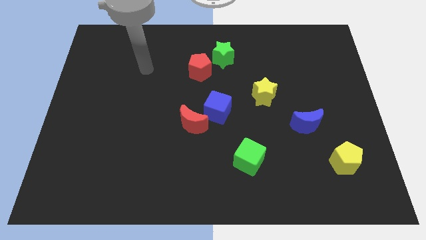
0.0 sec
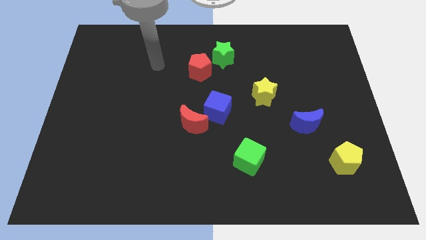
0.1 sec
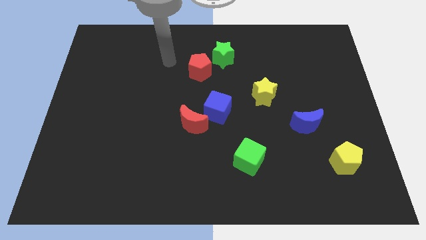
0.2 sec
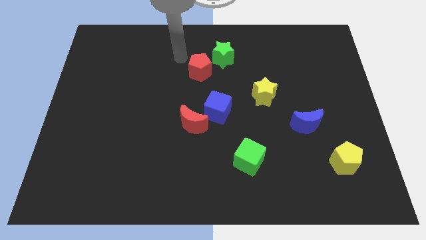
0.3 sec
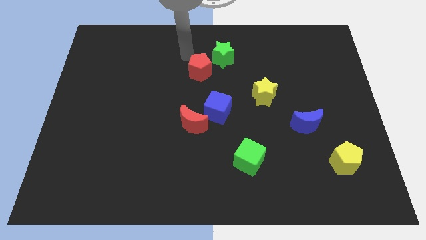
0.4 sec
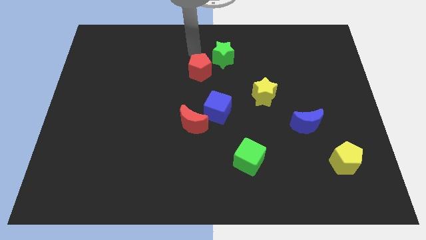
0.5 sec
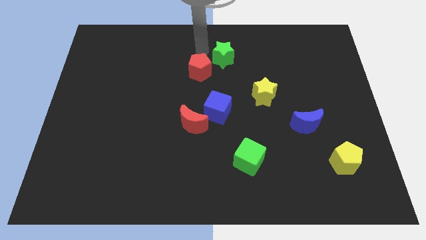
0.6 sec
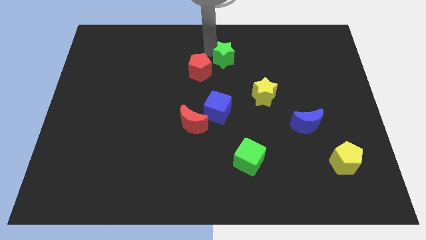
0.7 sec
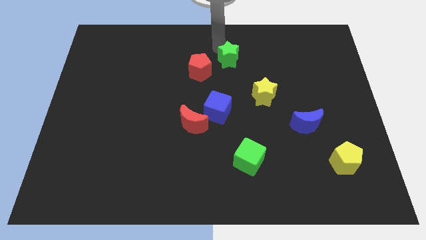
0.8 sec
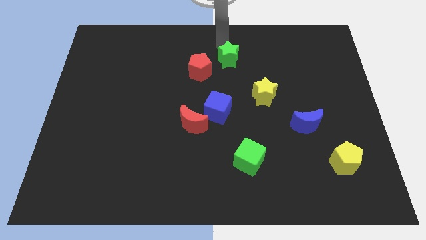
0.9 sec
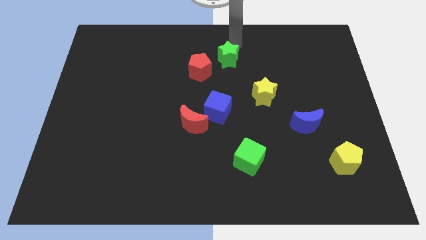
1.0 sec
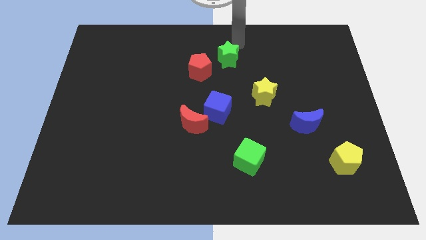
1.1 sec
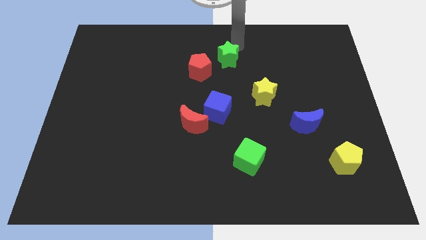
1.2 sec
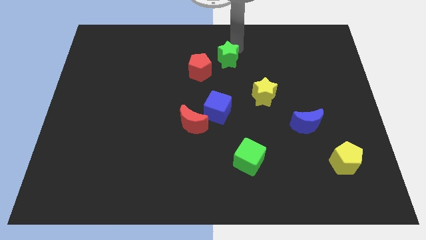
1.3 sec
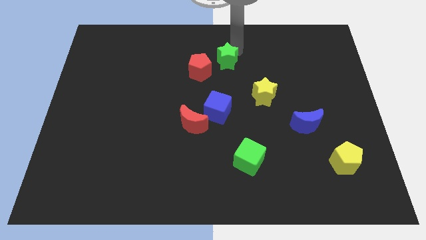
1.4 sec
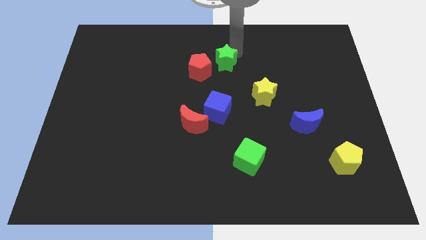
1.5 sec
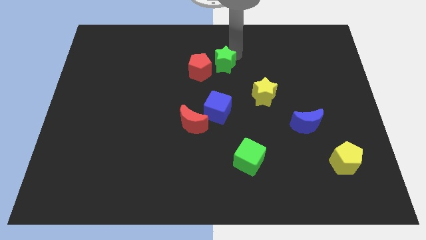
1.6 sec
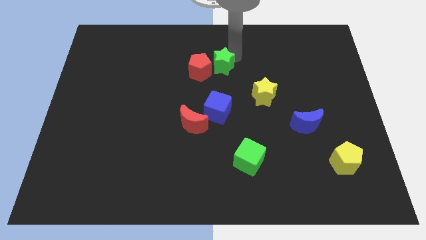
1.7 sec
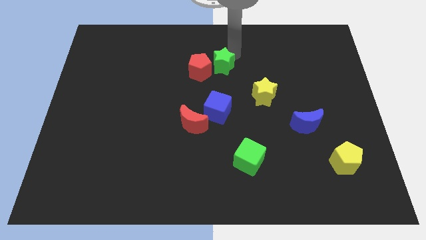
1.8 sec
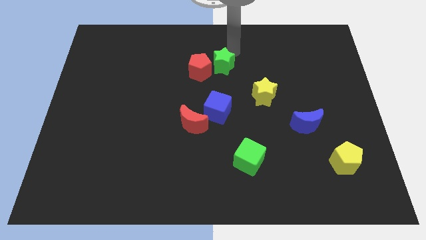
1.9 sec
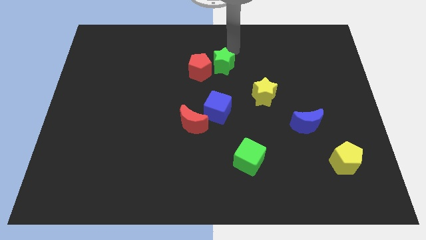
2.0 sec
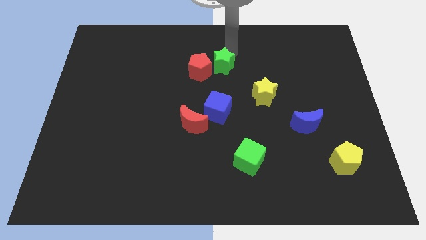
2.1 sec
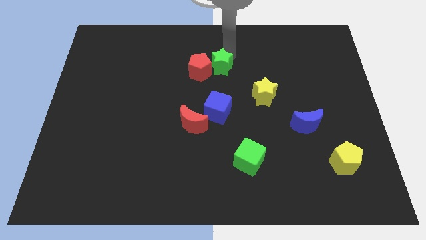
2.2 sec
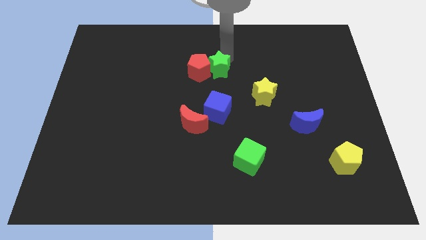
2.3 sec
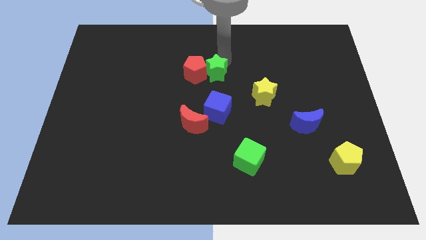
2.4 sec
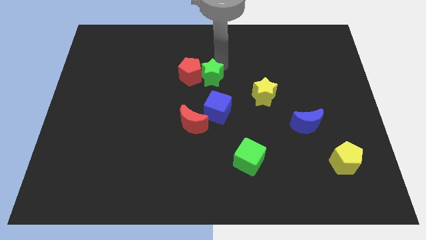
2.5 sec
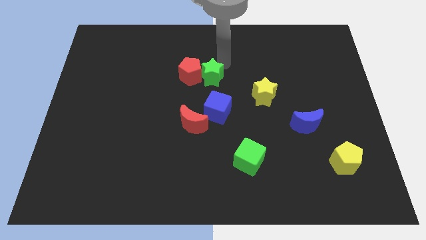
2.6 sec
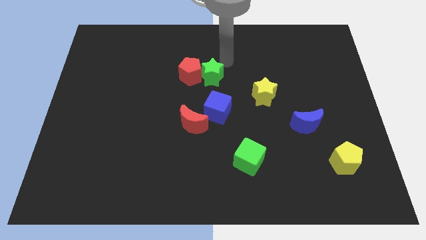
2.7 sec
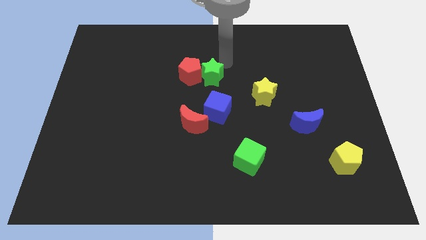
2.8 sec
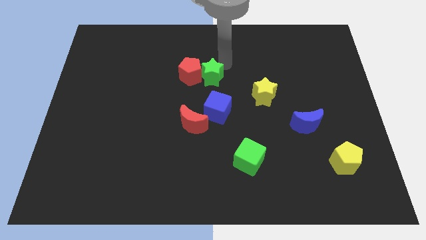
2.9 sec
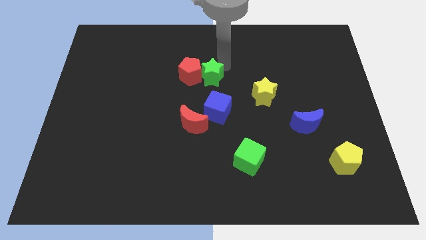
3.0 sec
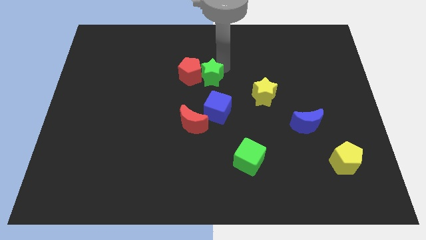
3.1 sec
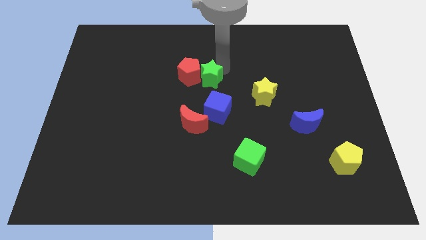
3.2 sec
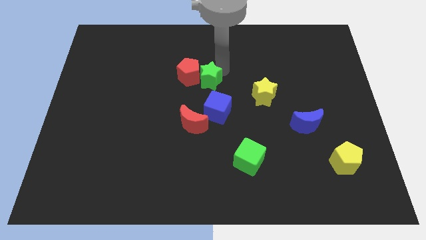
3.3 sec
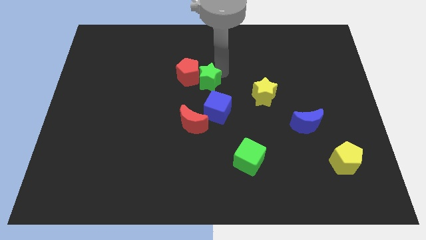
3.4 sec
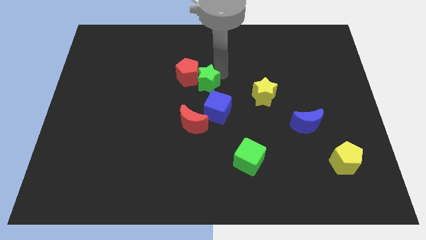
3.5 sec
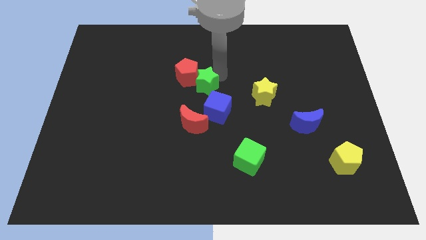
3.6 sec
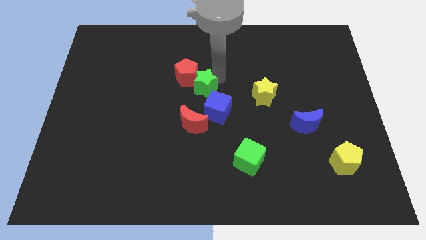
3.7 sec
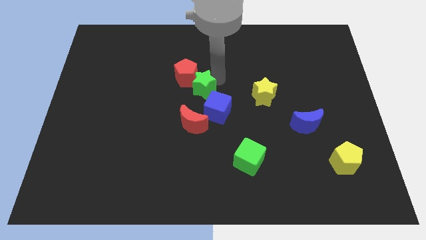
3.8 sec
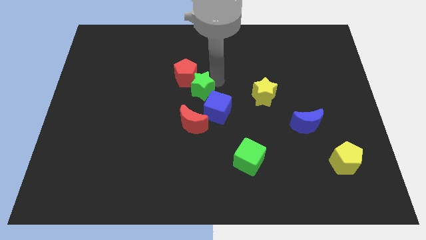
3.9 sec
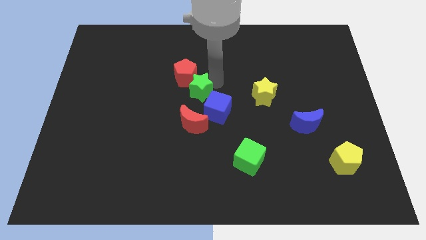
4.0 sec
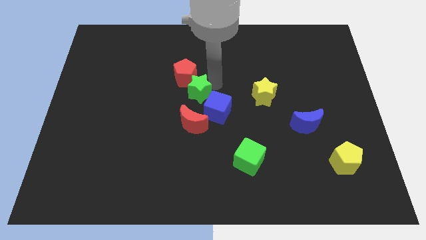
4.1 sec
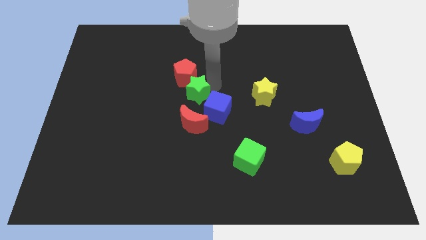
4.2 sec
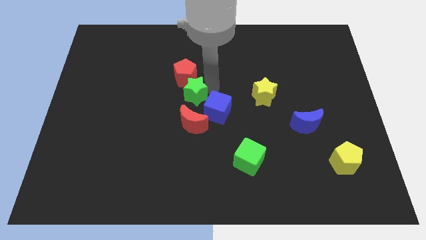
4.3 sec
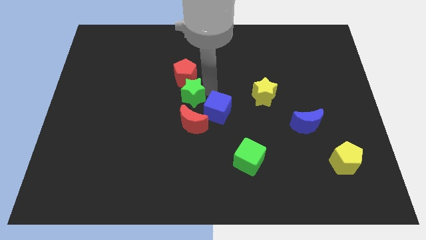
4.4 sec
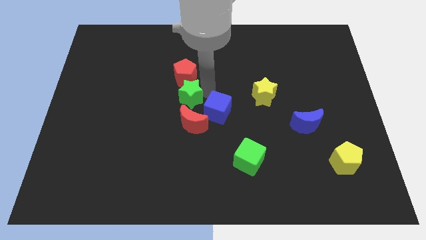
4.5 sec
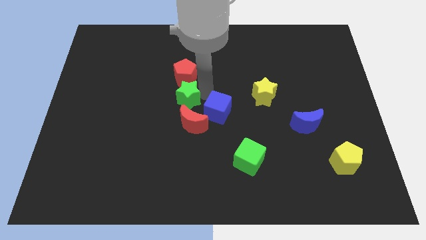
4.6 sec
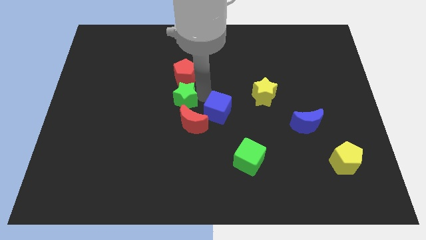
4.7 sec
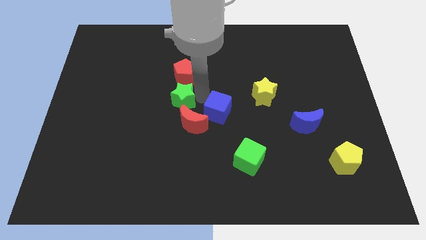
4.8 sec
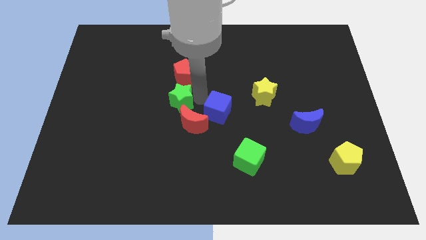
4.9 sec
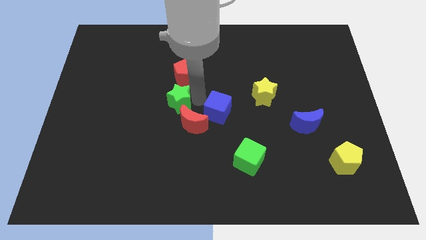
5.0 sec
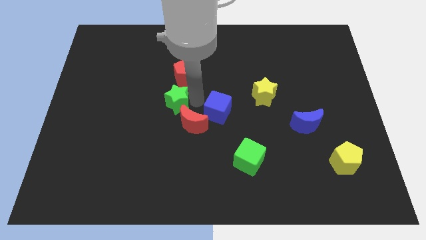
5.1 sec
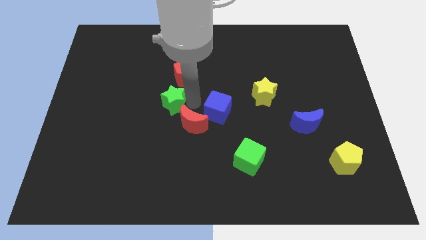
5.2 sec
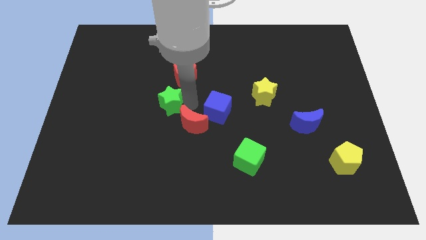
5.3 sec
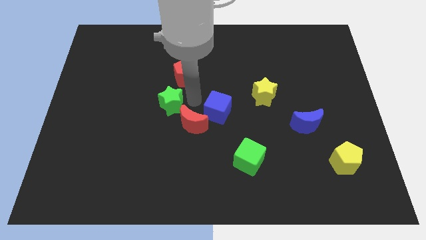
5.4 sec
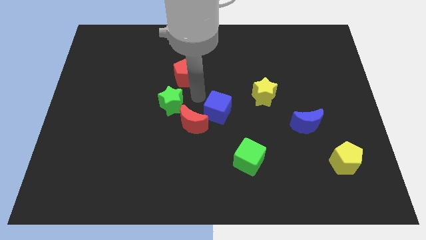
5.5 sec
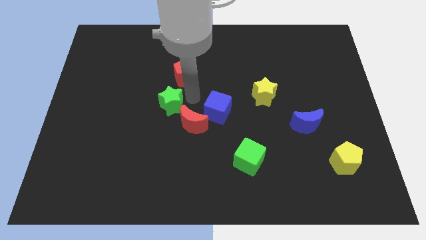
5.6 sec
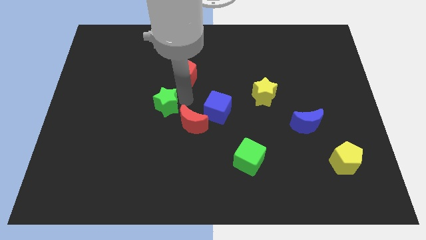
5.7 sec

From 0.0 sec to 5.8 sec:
push the green star downwards and left

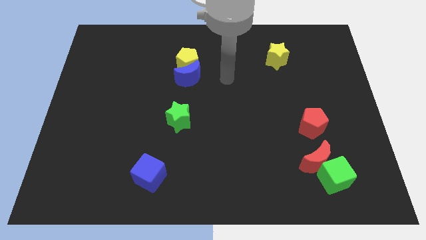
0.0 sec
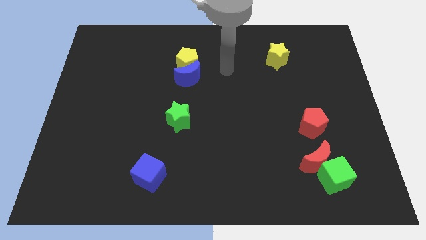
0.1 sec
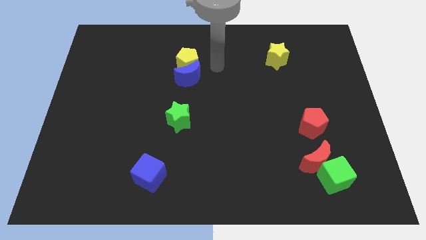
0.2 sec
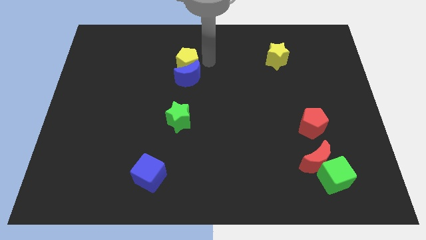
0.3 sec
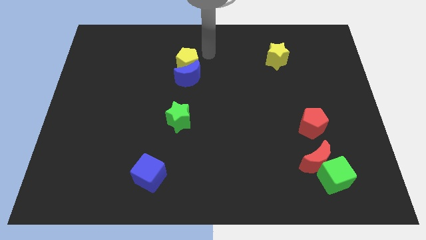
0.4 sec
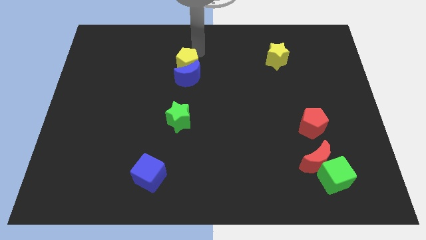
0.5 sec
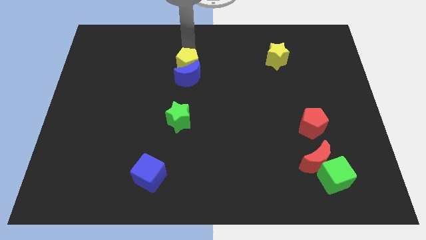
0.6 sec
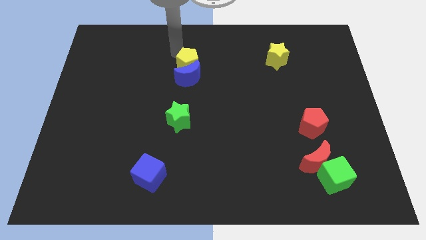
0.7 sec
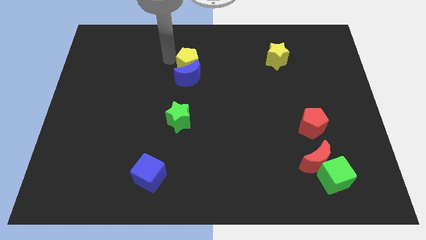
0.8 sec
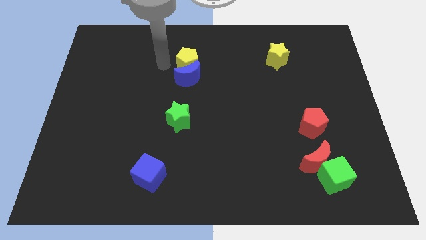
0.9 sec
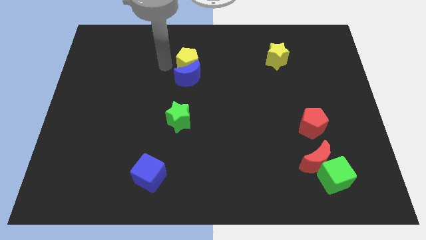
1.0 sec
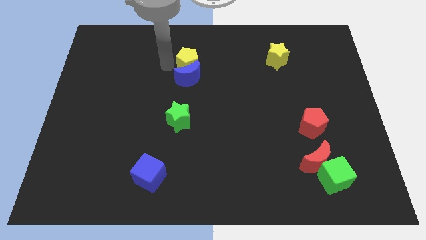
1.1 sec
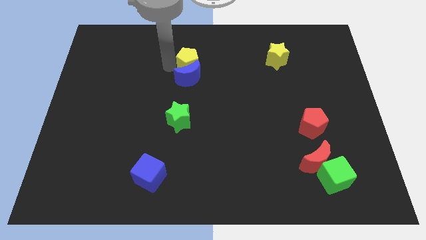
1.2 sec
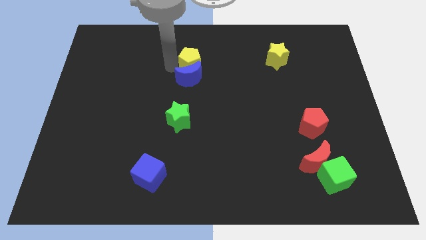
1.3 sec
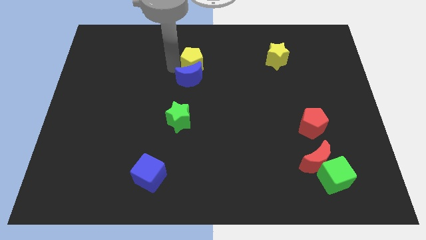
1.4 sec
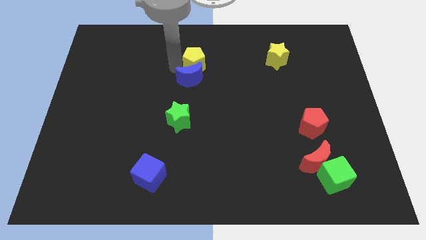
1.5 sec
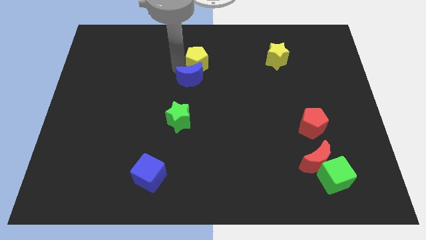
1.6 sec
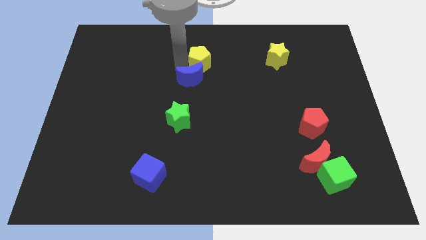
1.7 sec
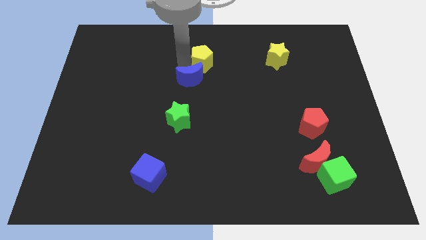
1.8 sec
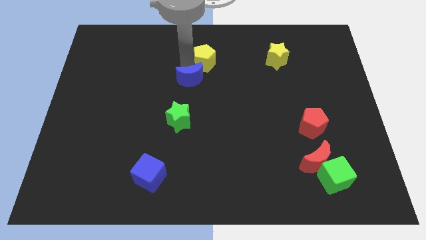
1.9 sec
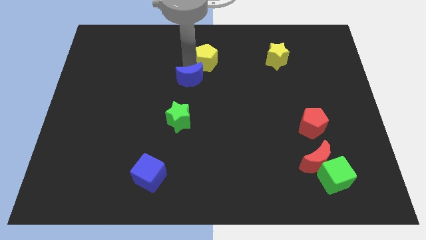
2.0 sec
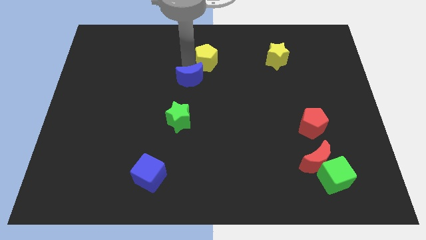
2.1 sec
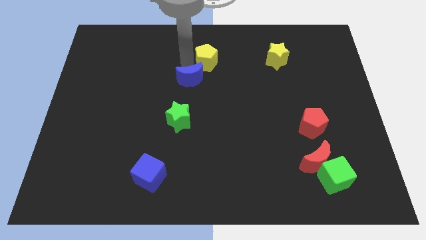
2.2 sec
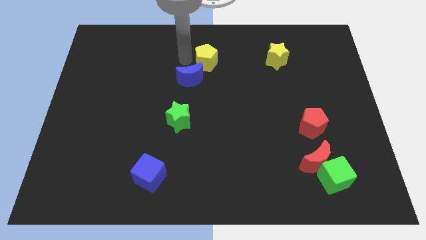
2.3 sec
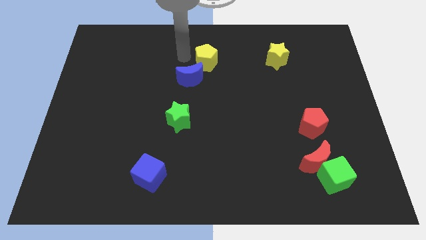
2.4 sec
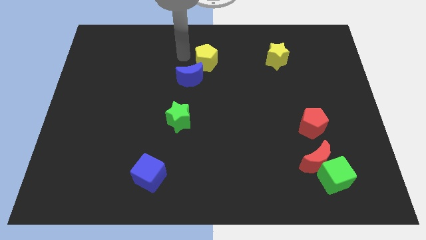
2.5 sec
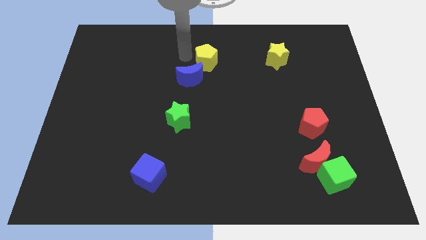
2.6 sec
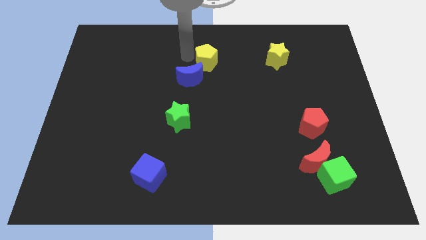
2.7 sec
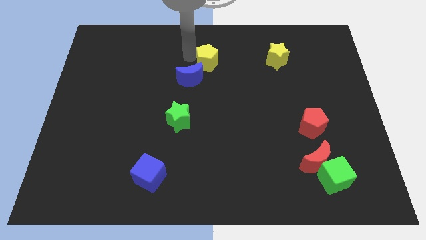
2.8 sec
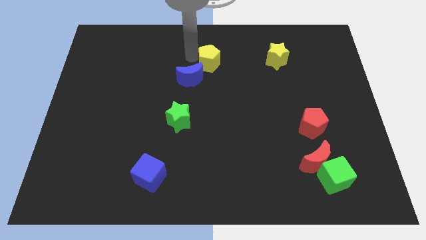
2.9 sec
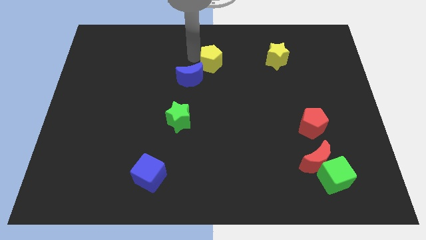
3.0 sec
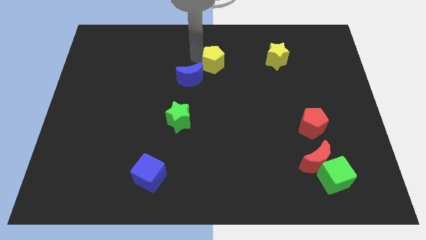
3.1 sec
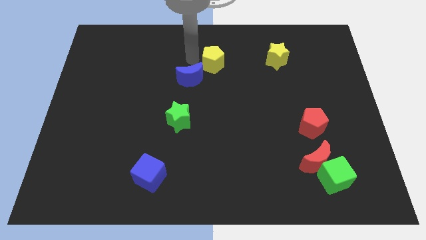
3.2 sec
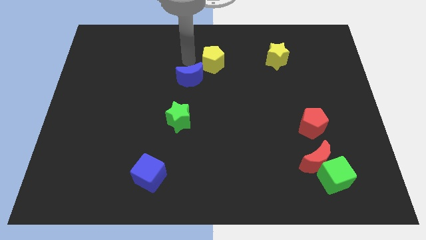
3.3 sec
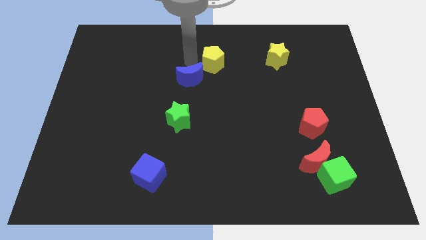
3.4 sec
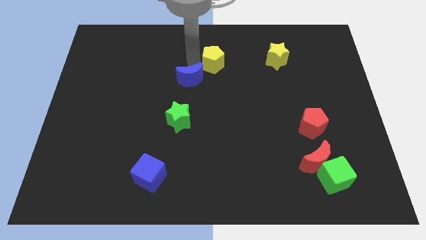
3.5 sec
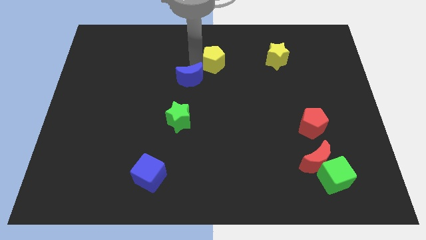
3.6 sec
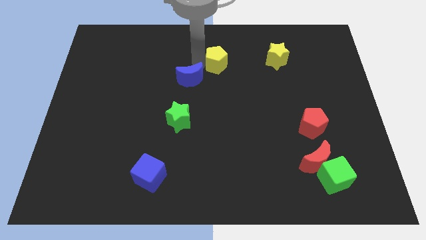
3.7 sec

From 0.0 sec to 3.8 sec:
push the yellow pentagon to the right a bit
